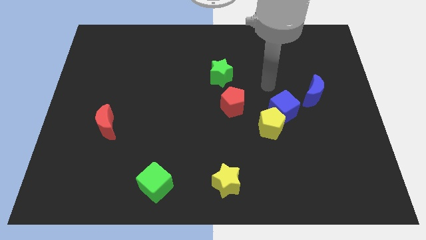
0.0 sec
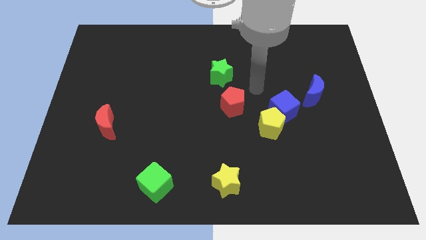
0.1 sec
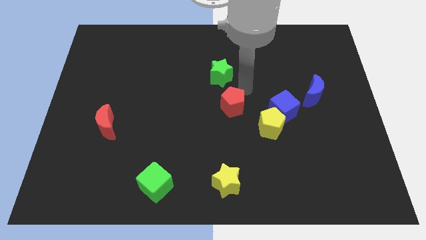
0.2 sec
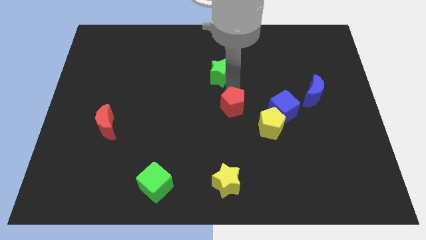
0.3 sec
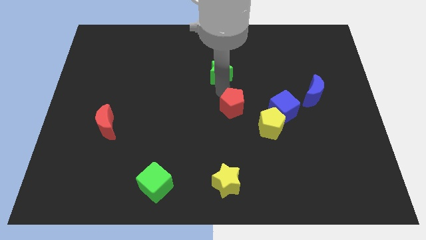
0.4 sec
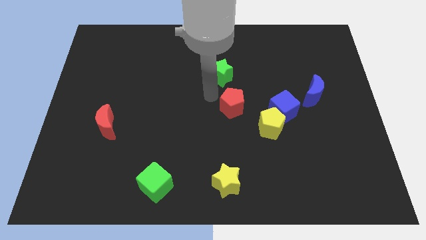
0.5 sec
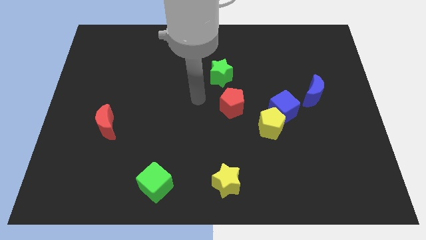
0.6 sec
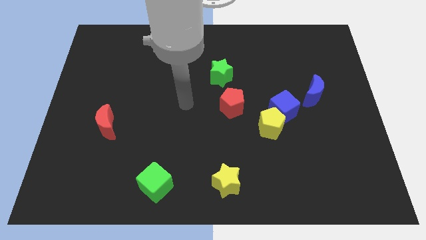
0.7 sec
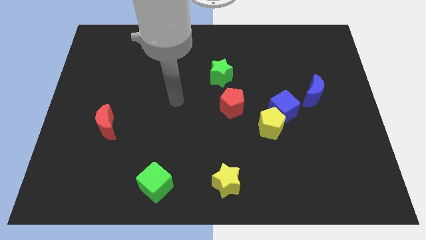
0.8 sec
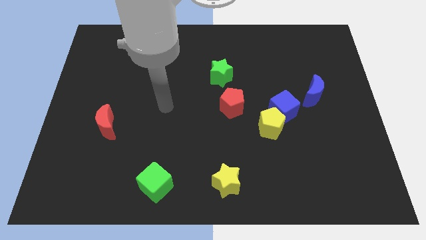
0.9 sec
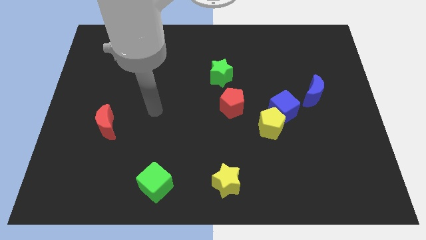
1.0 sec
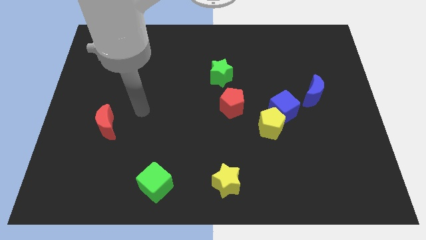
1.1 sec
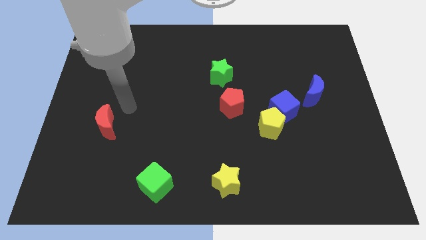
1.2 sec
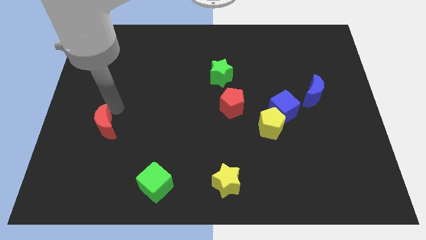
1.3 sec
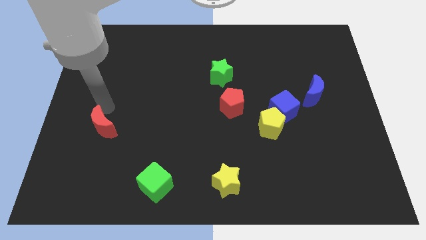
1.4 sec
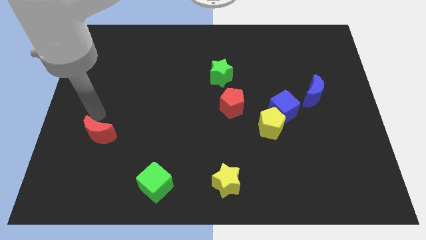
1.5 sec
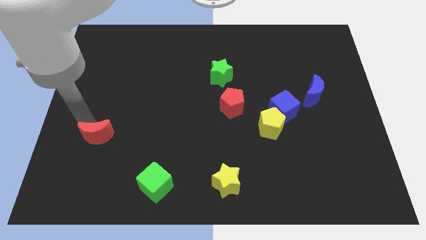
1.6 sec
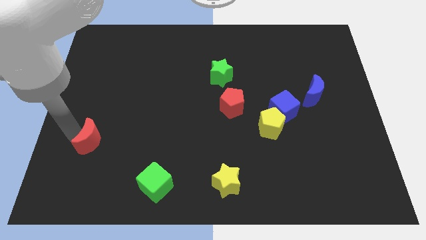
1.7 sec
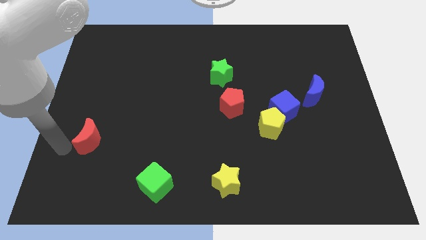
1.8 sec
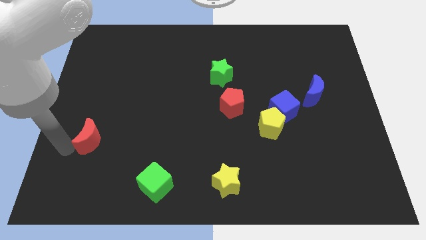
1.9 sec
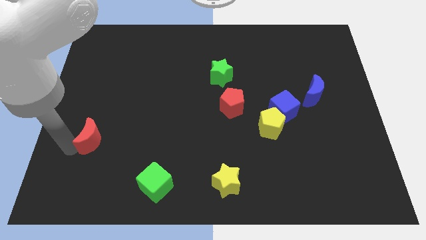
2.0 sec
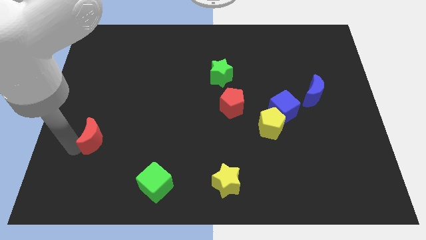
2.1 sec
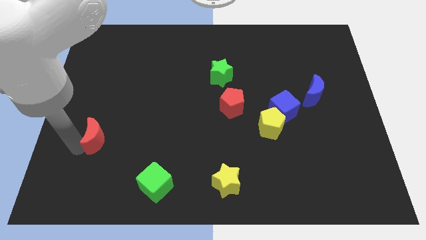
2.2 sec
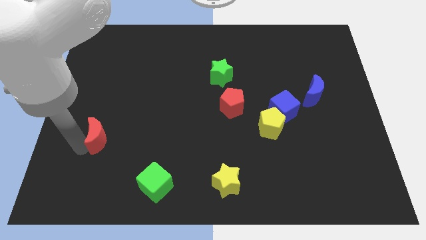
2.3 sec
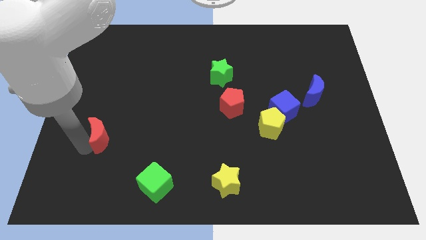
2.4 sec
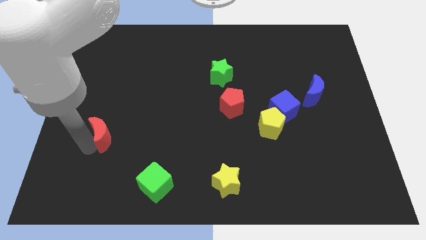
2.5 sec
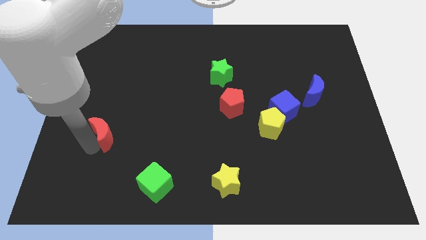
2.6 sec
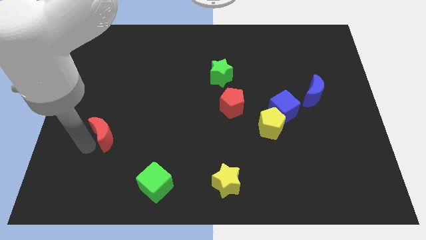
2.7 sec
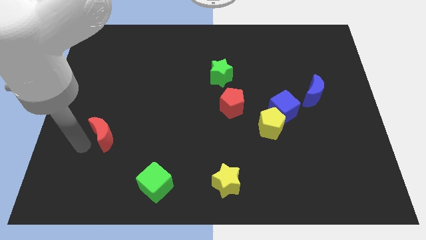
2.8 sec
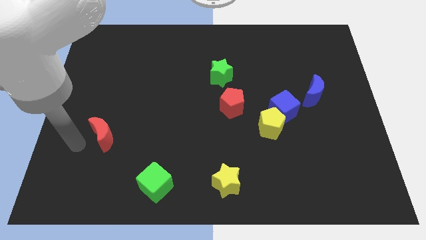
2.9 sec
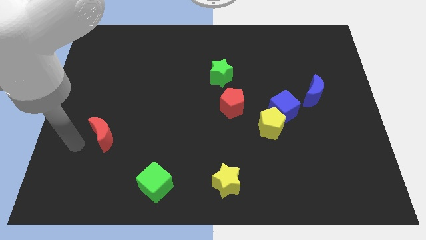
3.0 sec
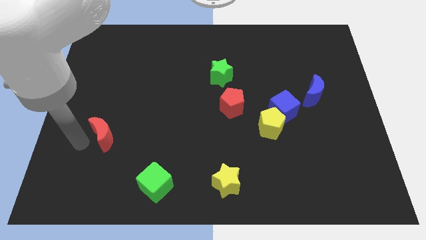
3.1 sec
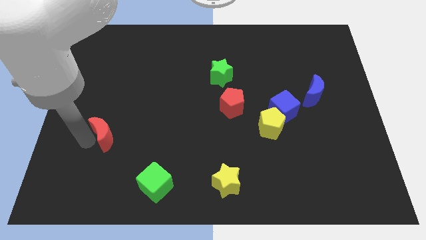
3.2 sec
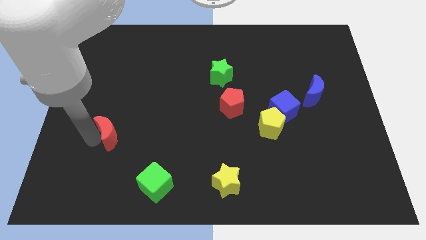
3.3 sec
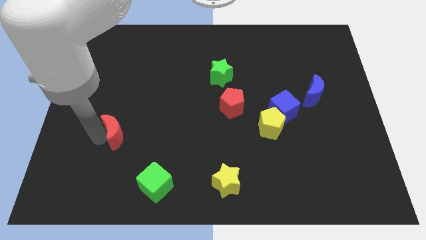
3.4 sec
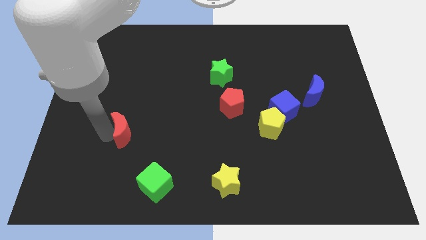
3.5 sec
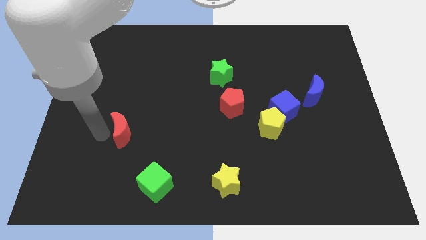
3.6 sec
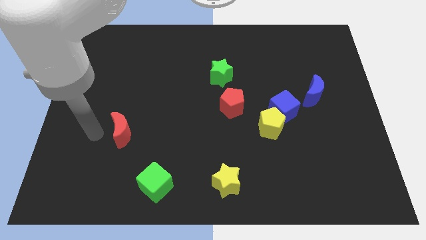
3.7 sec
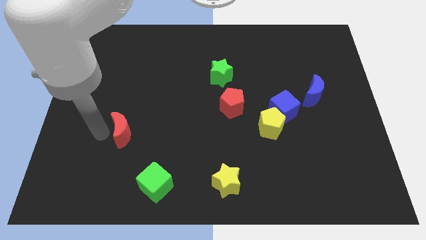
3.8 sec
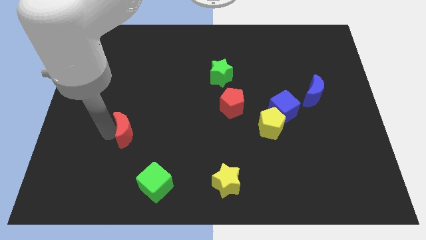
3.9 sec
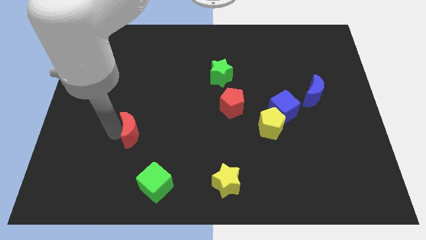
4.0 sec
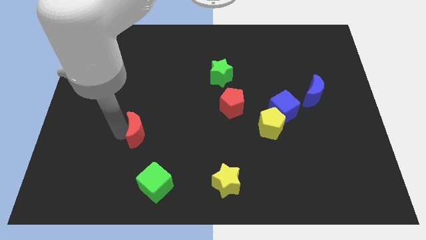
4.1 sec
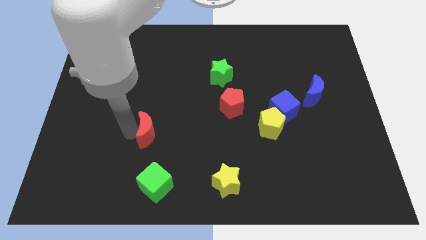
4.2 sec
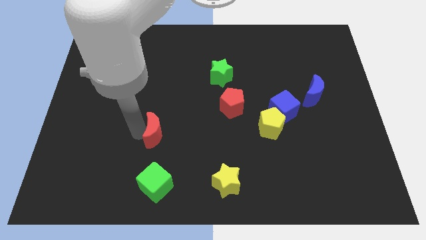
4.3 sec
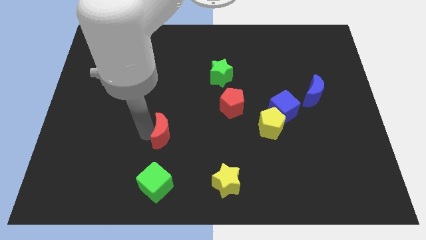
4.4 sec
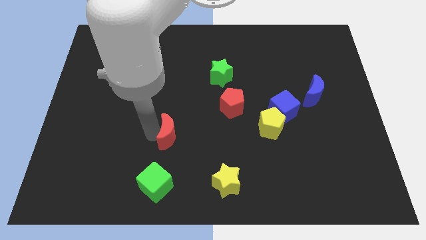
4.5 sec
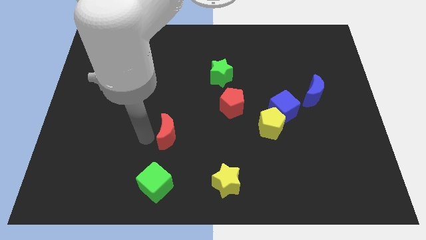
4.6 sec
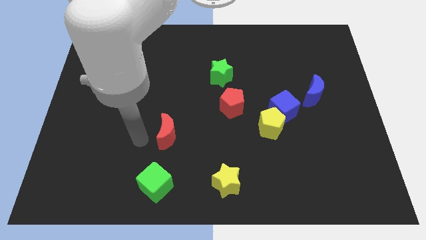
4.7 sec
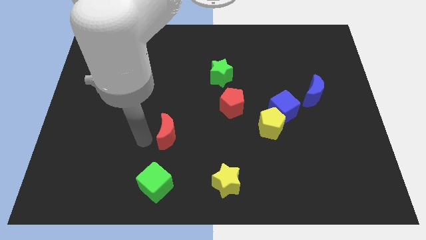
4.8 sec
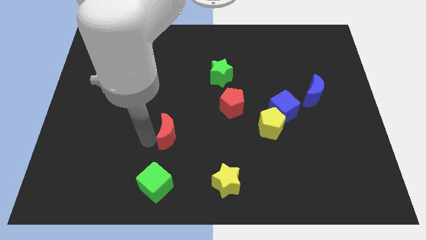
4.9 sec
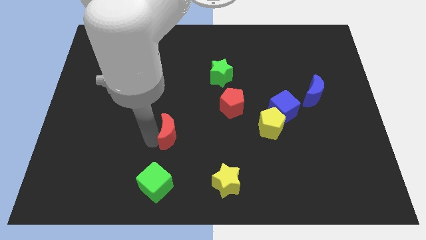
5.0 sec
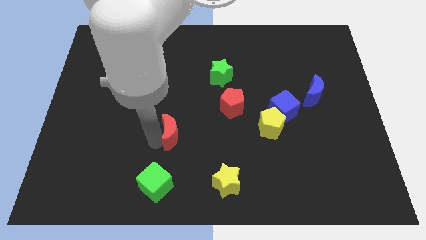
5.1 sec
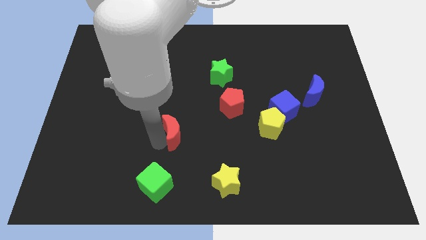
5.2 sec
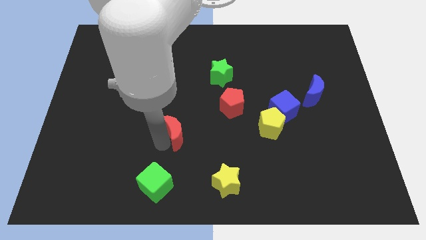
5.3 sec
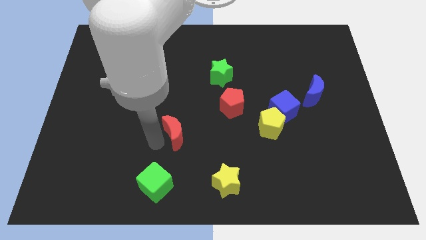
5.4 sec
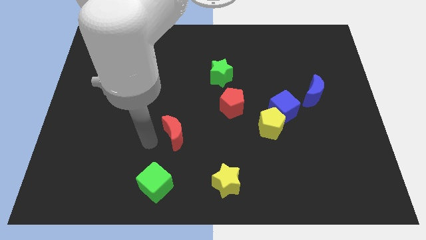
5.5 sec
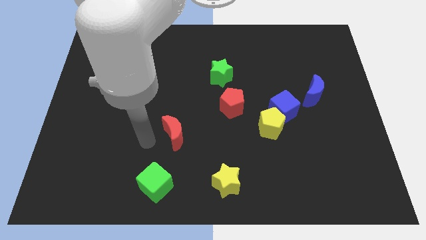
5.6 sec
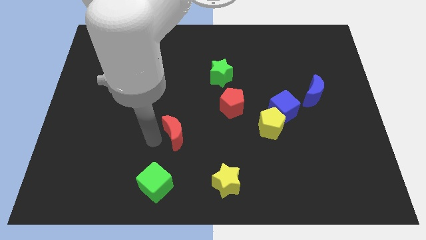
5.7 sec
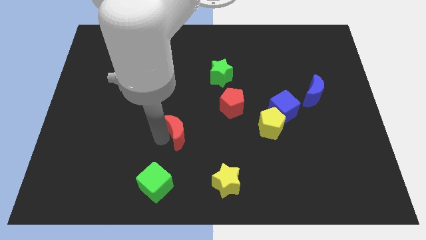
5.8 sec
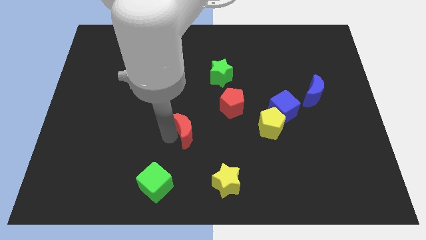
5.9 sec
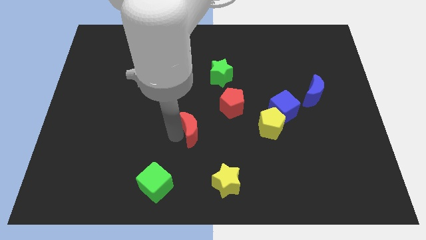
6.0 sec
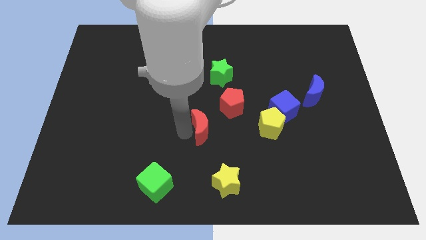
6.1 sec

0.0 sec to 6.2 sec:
move the red moon to the right

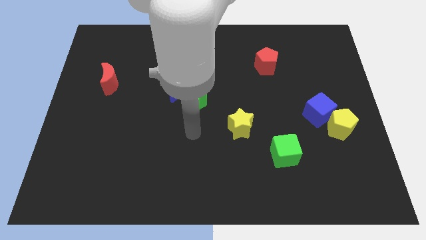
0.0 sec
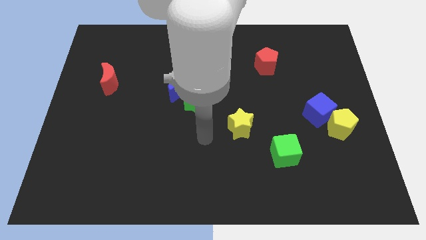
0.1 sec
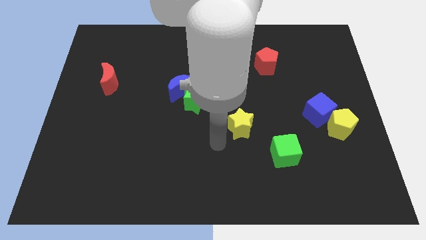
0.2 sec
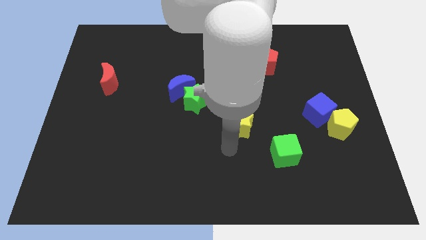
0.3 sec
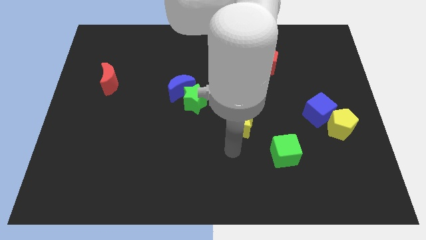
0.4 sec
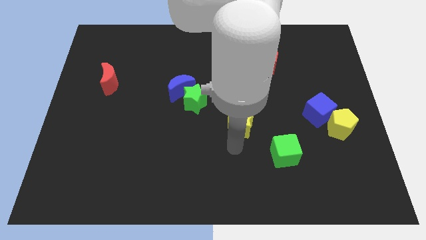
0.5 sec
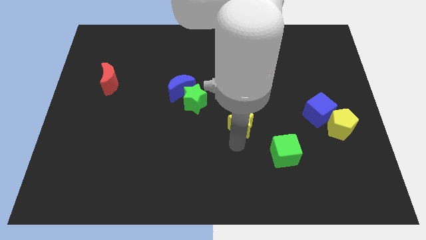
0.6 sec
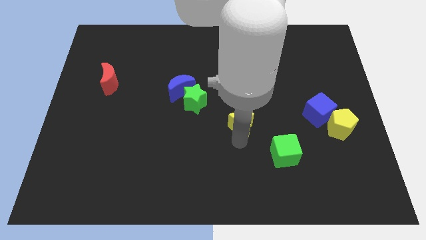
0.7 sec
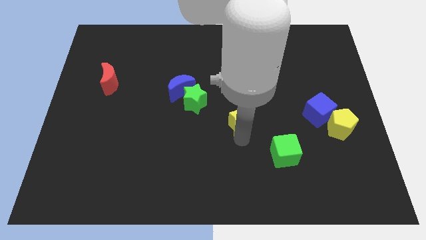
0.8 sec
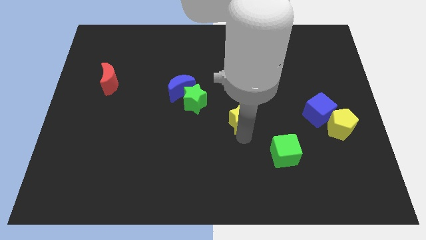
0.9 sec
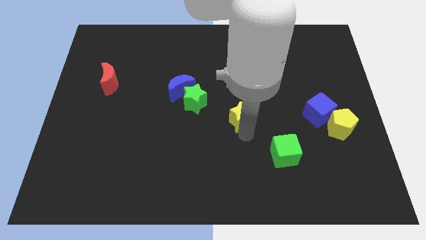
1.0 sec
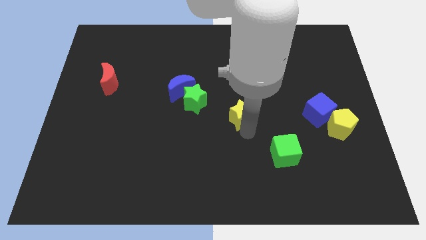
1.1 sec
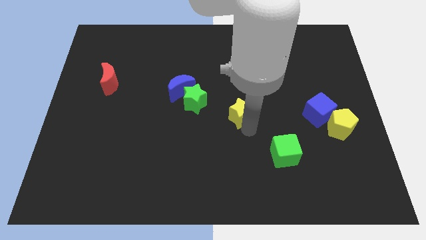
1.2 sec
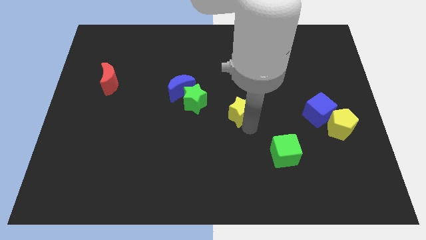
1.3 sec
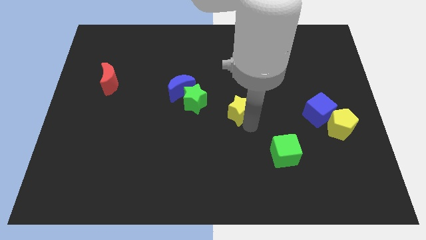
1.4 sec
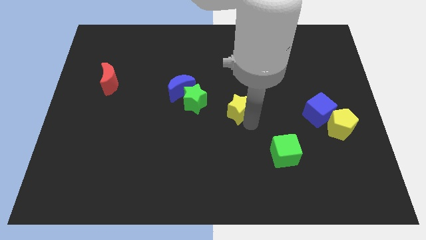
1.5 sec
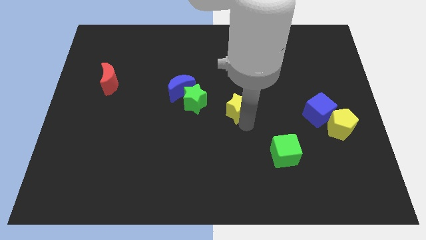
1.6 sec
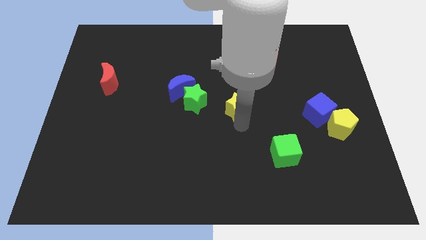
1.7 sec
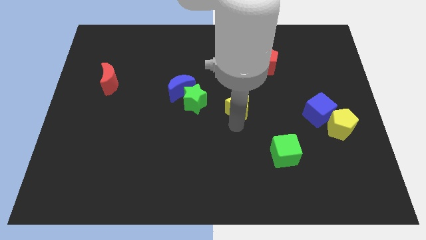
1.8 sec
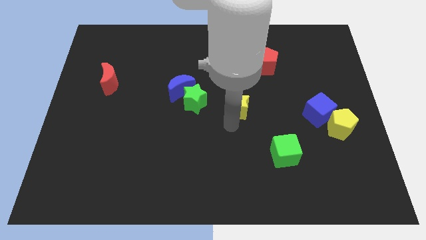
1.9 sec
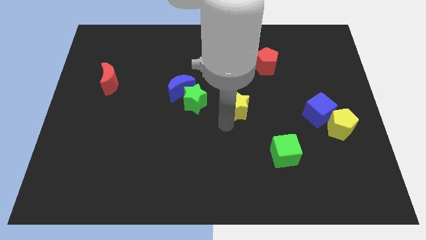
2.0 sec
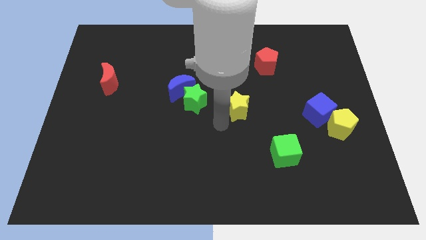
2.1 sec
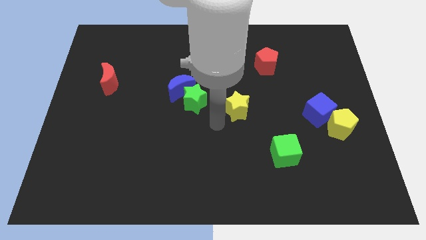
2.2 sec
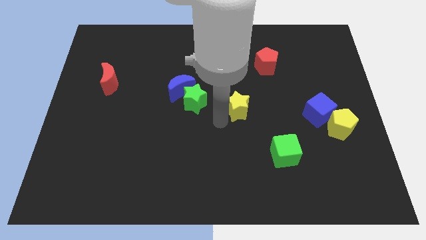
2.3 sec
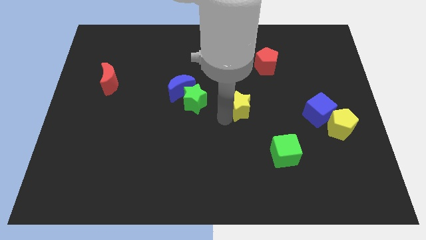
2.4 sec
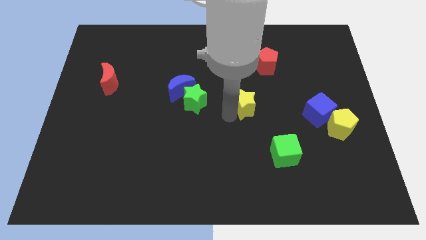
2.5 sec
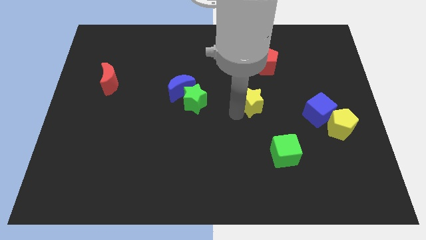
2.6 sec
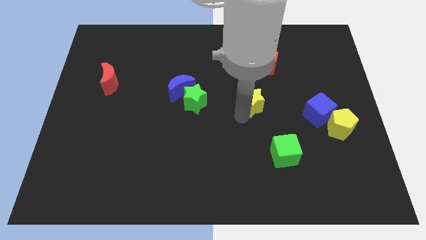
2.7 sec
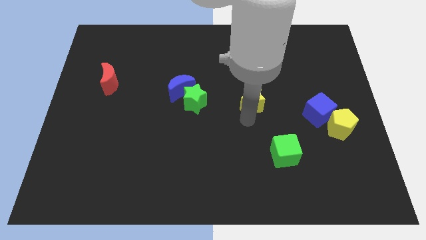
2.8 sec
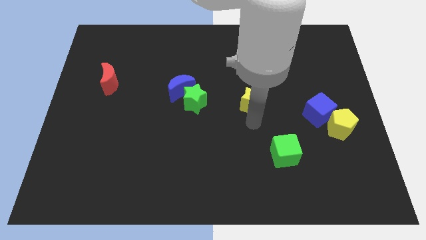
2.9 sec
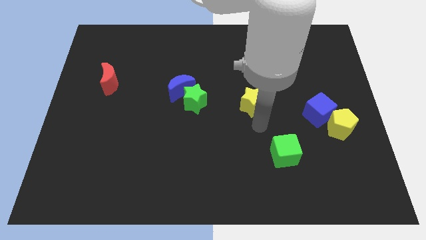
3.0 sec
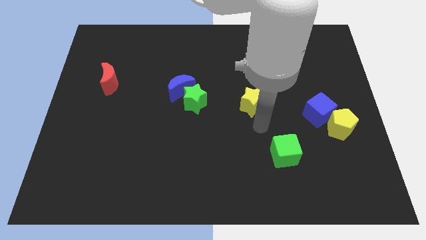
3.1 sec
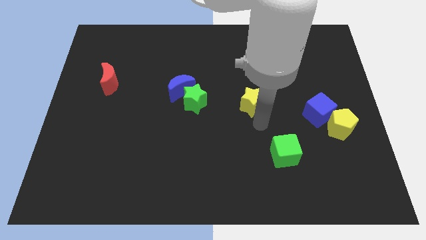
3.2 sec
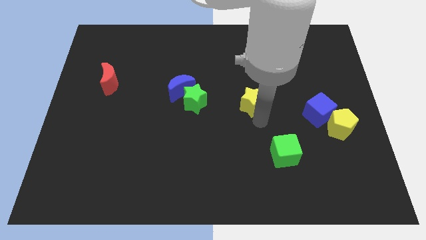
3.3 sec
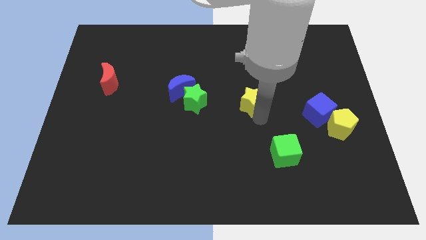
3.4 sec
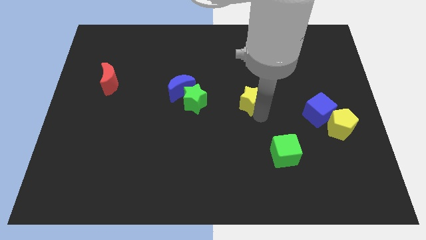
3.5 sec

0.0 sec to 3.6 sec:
slightly slide the yellow star upwards
